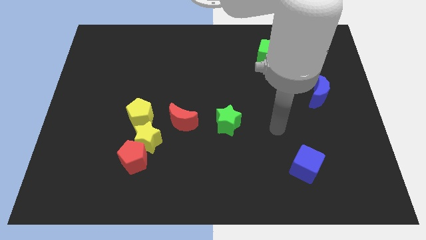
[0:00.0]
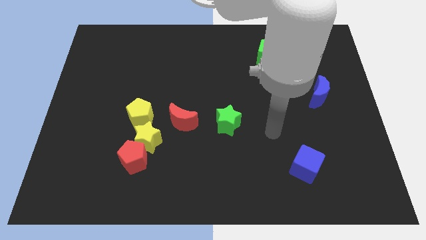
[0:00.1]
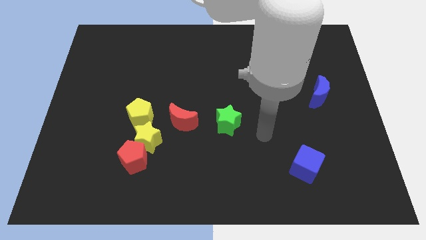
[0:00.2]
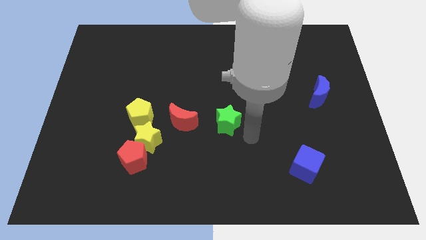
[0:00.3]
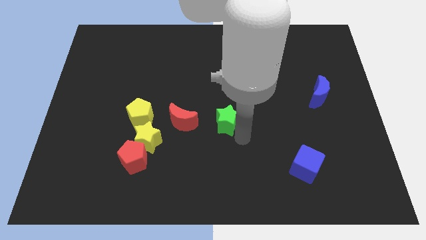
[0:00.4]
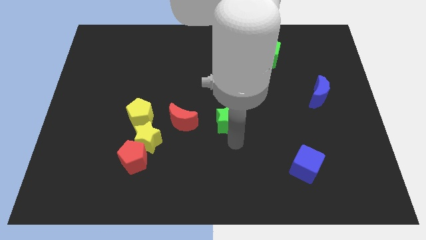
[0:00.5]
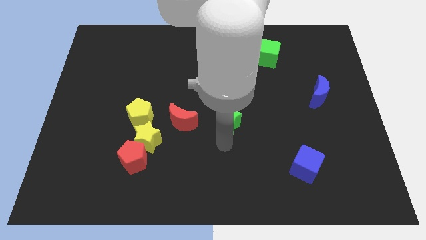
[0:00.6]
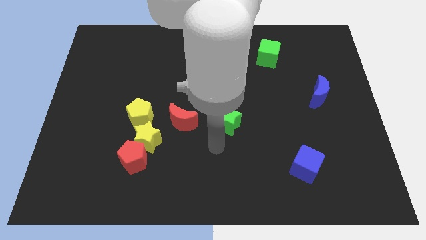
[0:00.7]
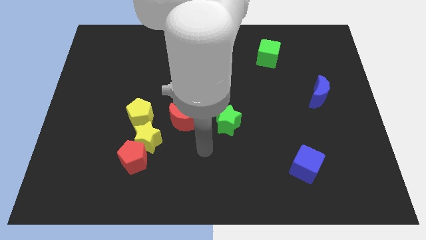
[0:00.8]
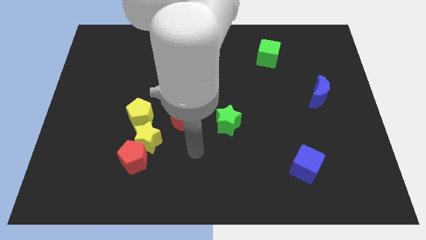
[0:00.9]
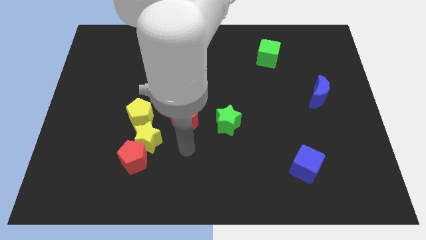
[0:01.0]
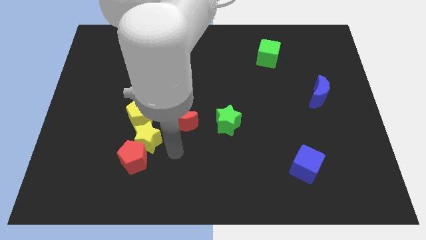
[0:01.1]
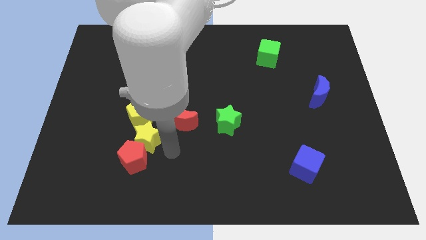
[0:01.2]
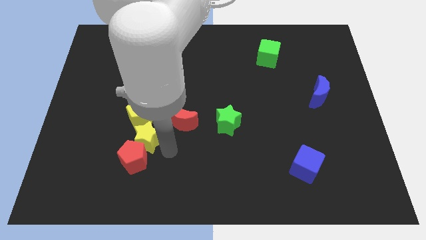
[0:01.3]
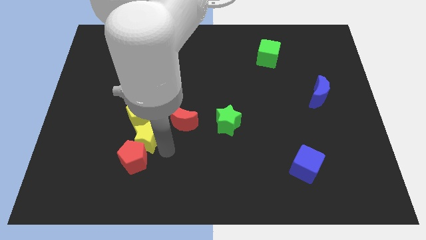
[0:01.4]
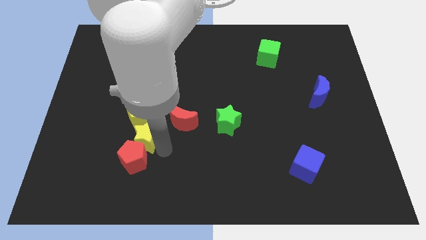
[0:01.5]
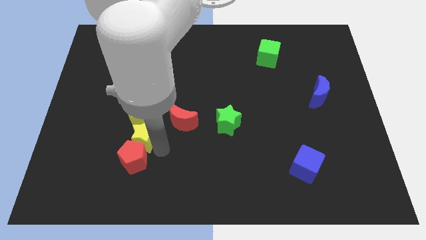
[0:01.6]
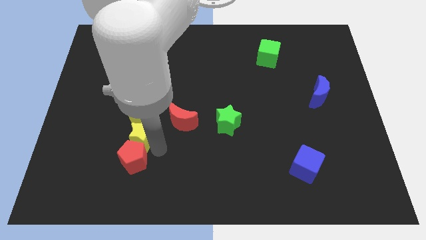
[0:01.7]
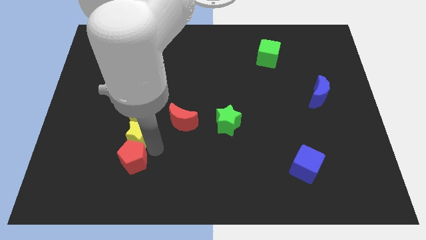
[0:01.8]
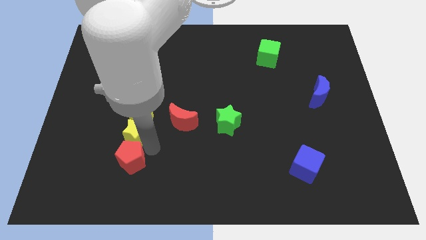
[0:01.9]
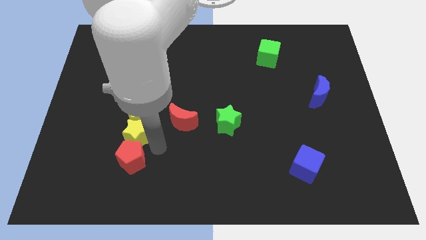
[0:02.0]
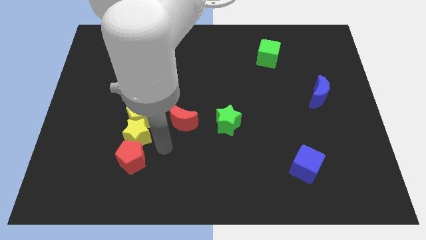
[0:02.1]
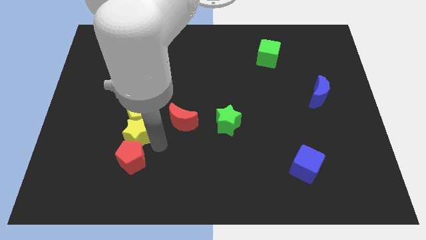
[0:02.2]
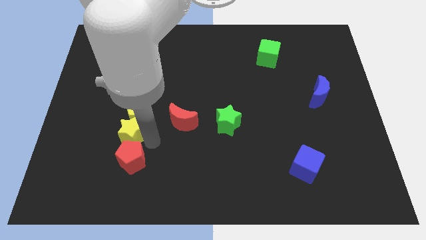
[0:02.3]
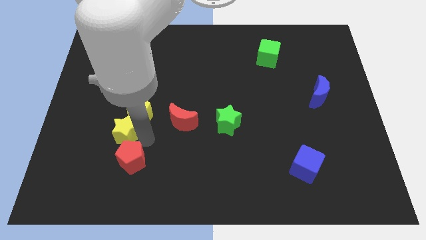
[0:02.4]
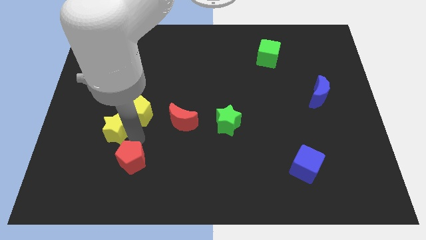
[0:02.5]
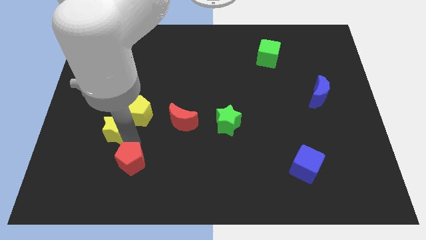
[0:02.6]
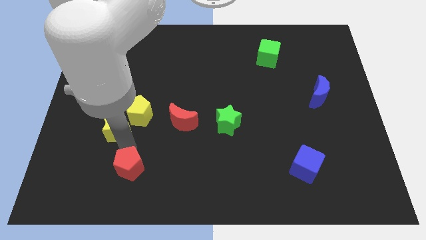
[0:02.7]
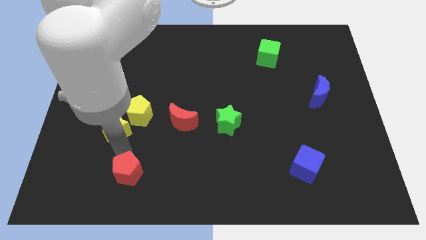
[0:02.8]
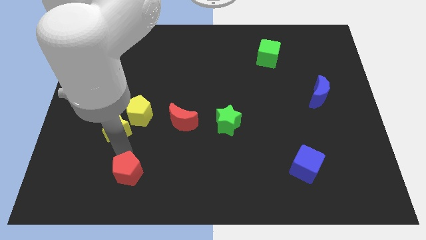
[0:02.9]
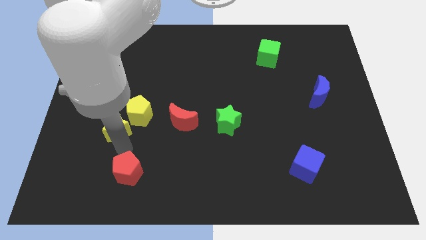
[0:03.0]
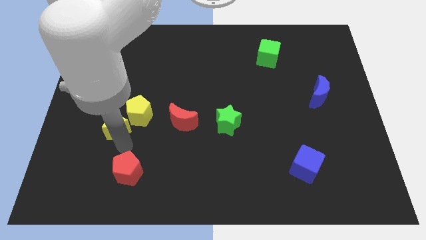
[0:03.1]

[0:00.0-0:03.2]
slightly push the yellow star upwards and left

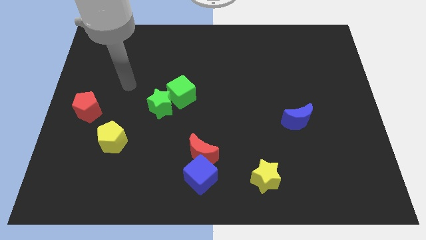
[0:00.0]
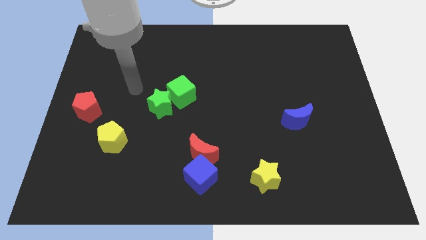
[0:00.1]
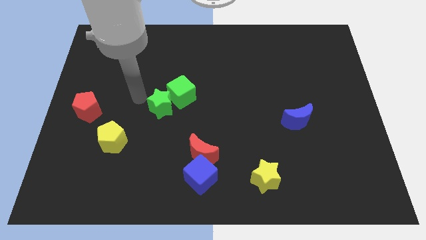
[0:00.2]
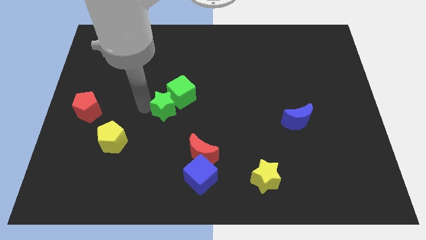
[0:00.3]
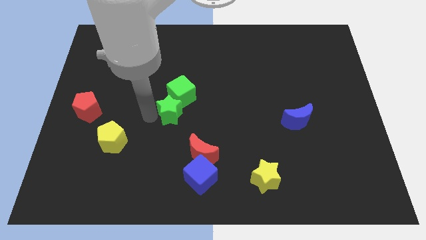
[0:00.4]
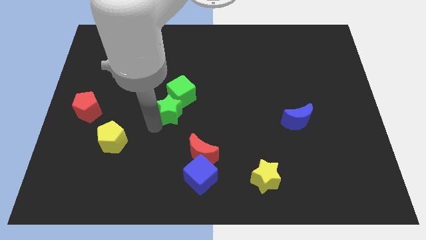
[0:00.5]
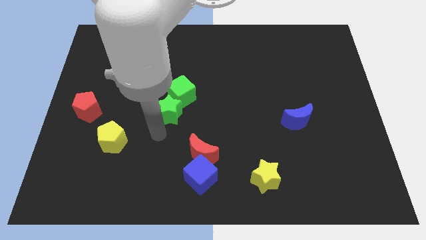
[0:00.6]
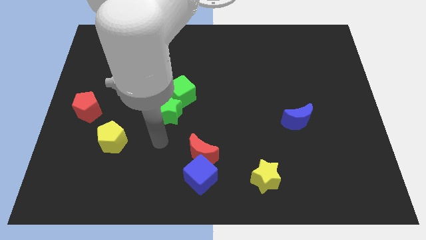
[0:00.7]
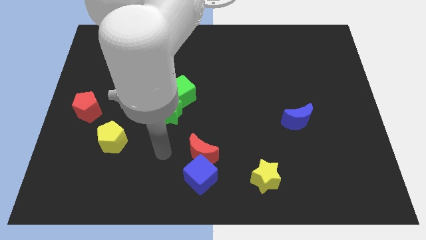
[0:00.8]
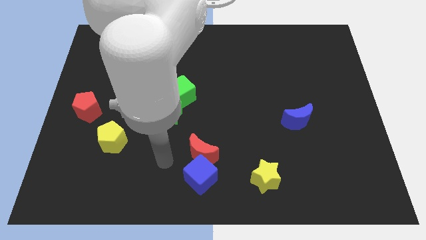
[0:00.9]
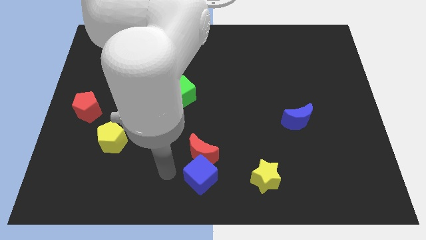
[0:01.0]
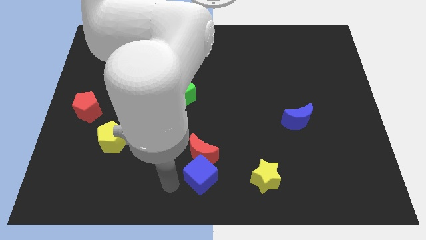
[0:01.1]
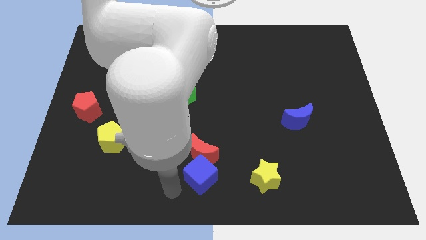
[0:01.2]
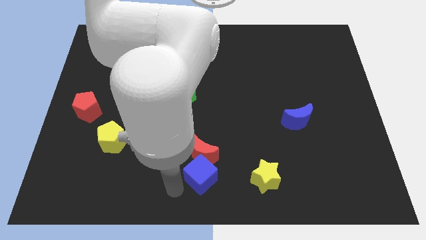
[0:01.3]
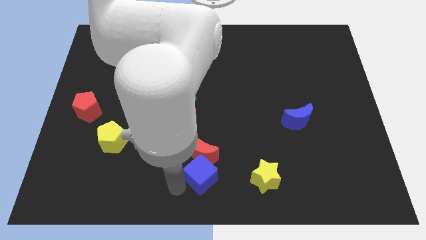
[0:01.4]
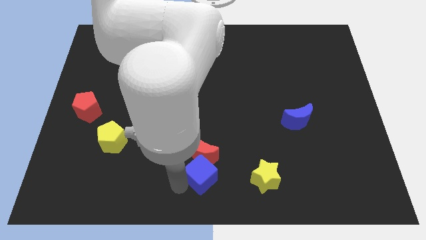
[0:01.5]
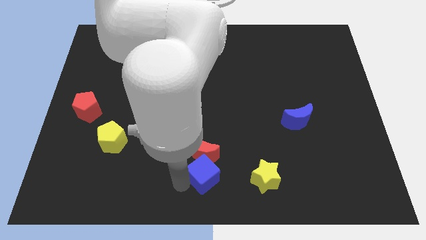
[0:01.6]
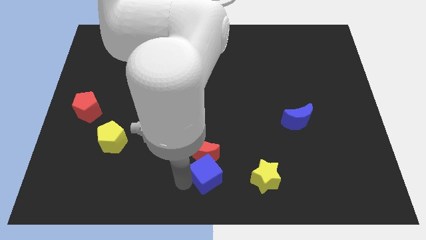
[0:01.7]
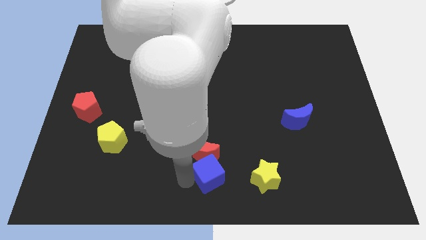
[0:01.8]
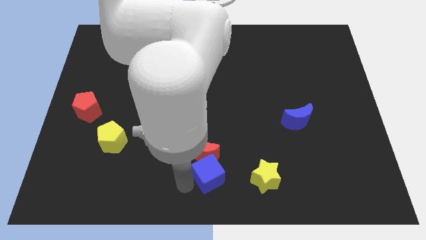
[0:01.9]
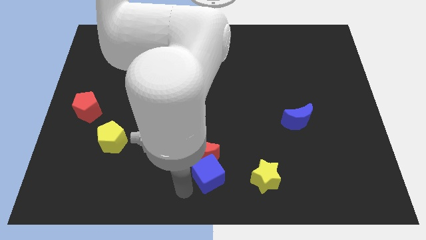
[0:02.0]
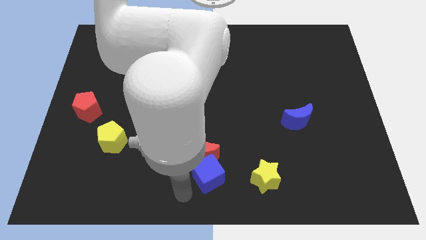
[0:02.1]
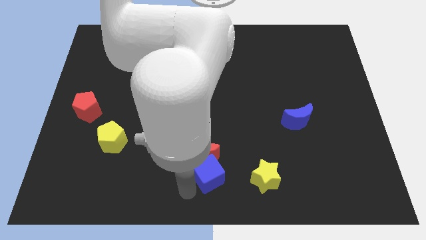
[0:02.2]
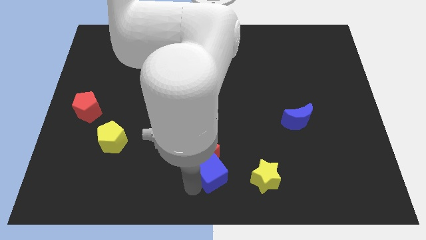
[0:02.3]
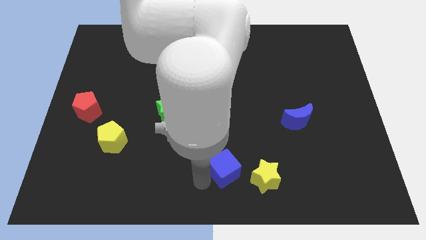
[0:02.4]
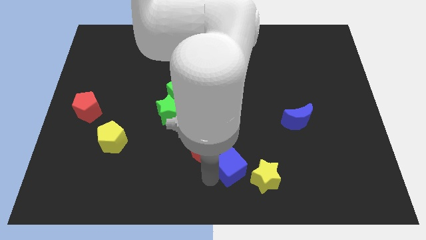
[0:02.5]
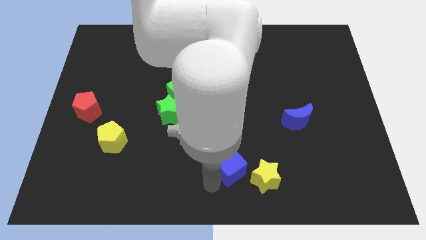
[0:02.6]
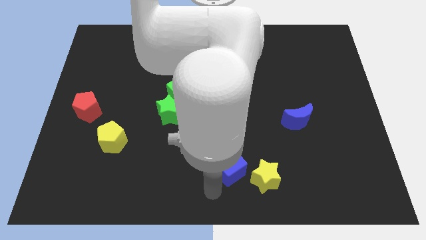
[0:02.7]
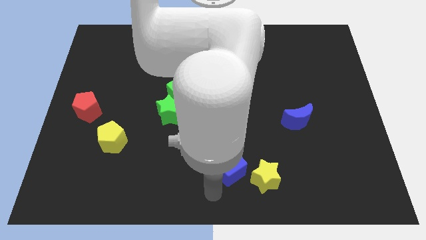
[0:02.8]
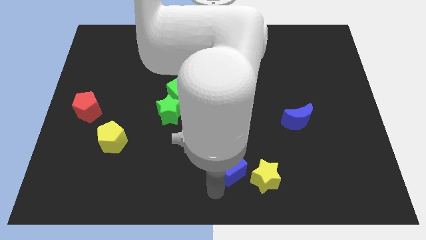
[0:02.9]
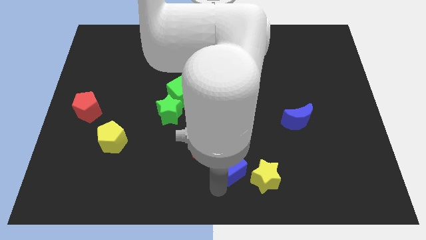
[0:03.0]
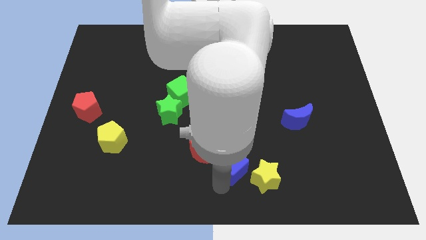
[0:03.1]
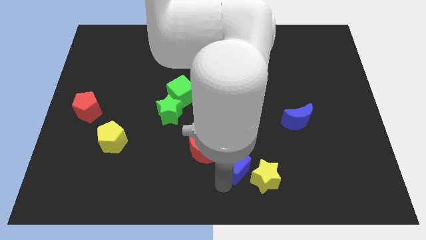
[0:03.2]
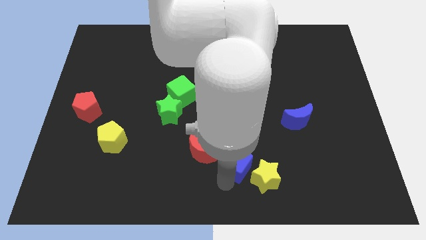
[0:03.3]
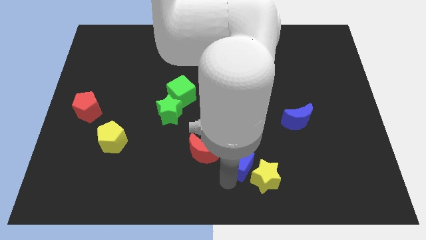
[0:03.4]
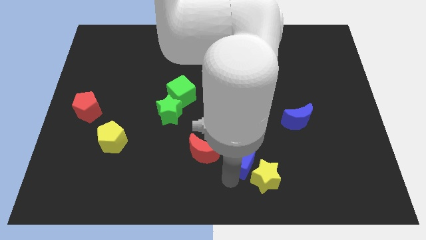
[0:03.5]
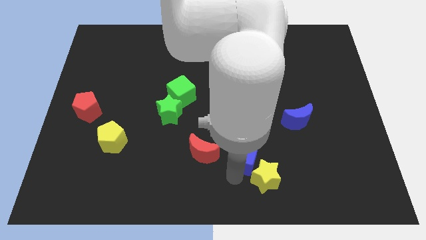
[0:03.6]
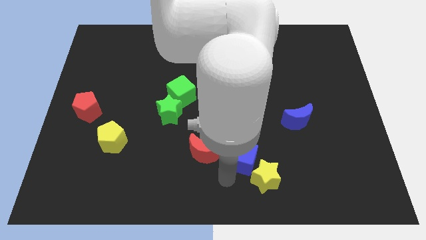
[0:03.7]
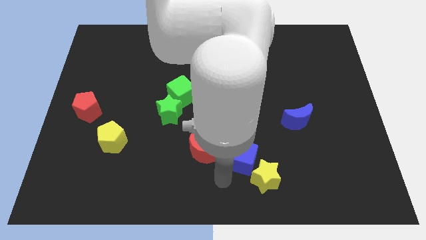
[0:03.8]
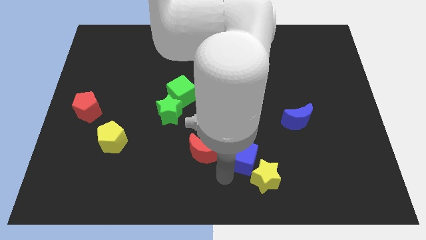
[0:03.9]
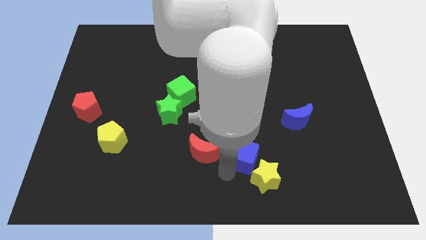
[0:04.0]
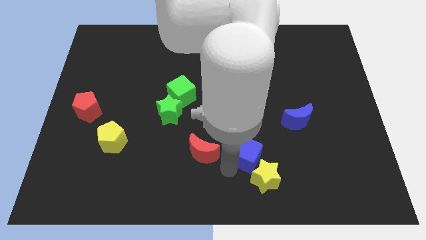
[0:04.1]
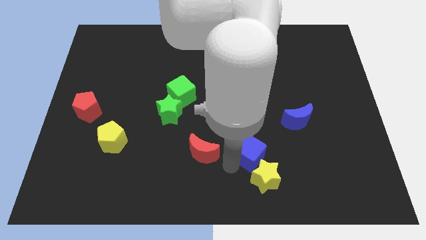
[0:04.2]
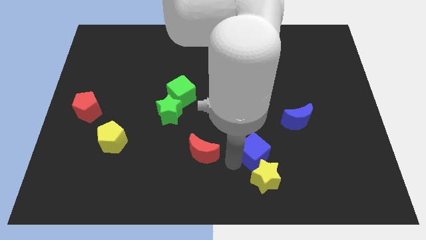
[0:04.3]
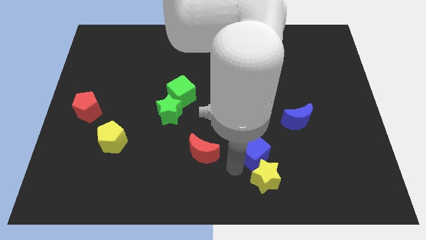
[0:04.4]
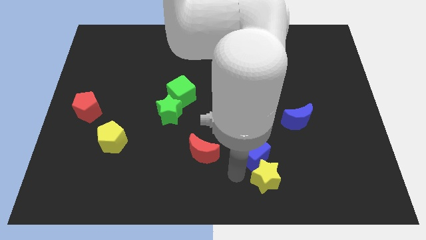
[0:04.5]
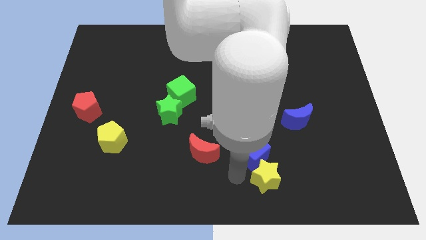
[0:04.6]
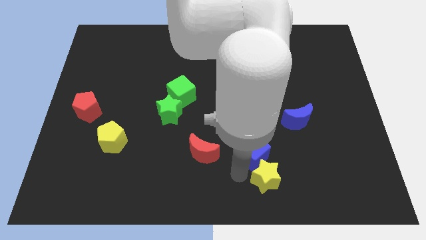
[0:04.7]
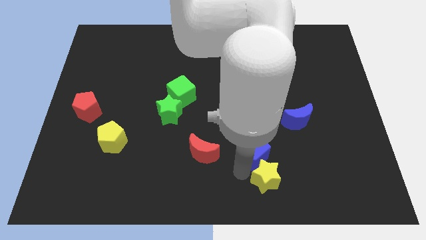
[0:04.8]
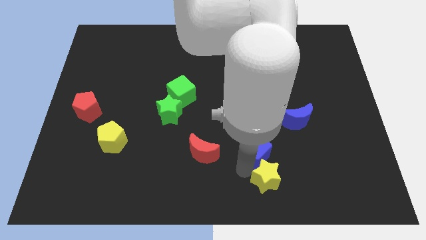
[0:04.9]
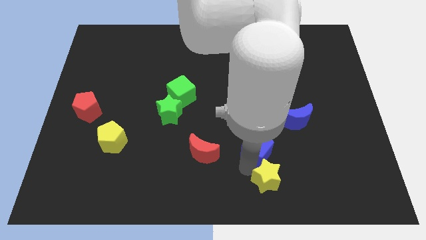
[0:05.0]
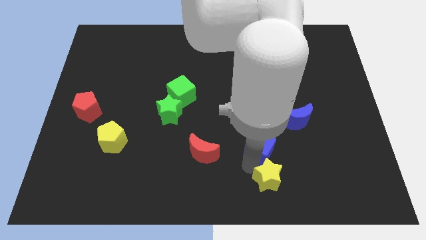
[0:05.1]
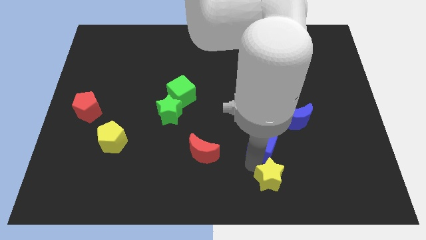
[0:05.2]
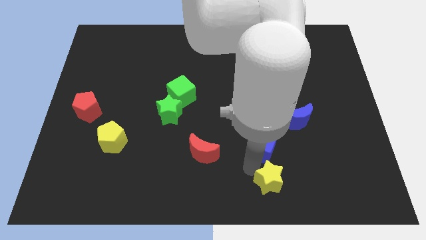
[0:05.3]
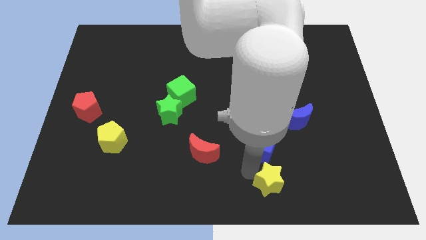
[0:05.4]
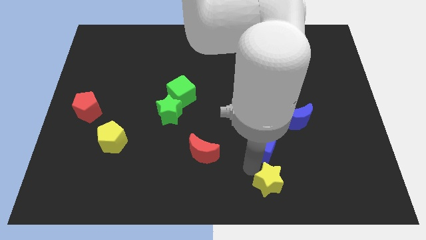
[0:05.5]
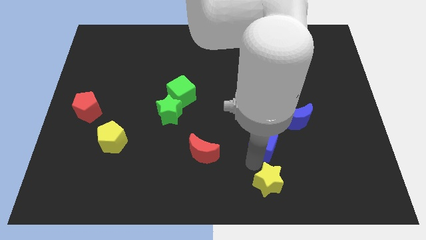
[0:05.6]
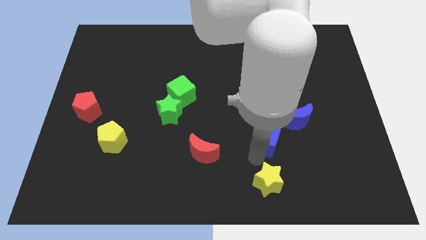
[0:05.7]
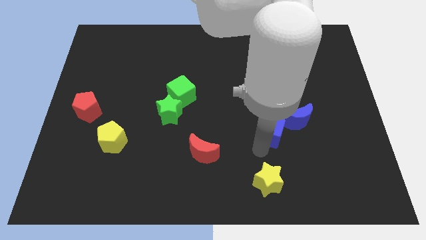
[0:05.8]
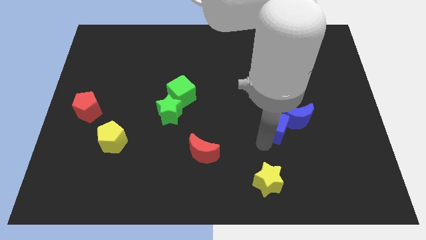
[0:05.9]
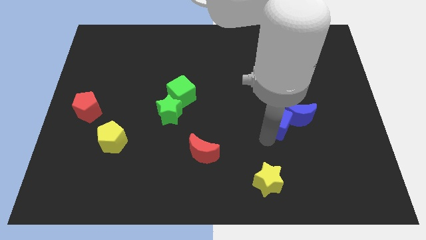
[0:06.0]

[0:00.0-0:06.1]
slide the blue cube diagonally up and to the right
